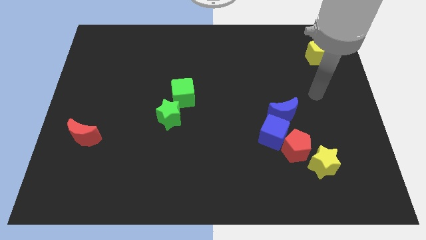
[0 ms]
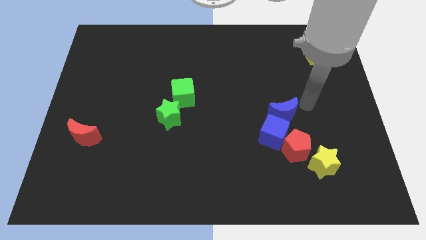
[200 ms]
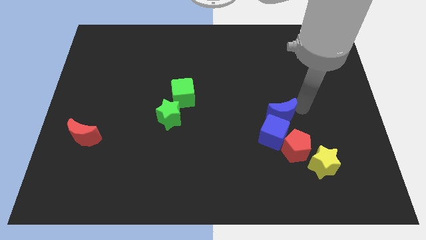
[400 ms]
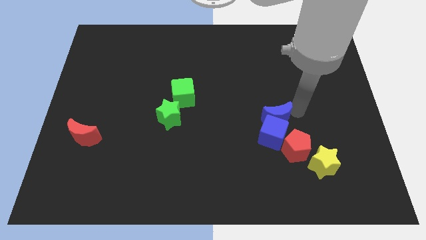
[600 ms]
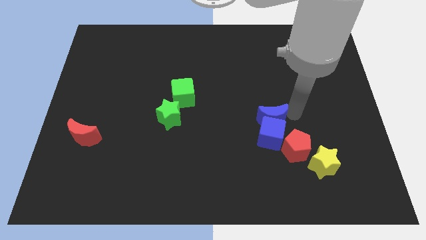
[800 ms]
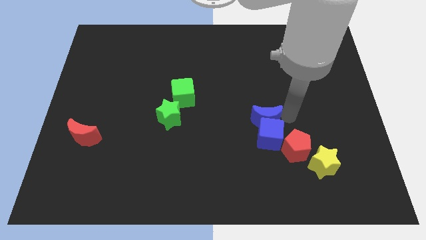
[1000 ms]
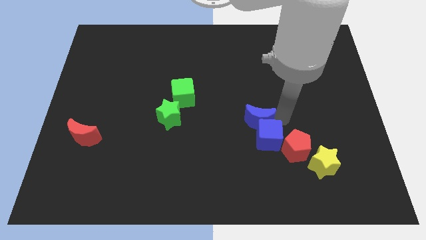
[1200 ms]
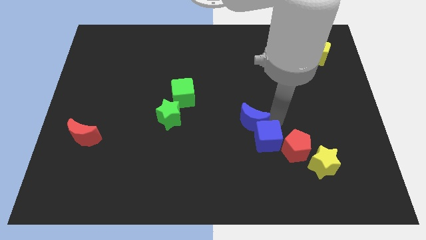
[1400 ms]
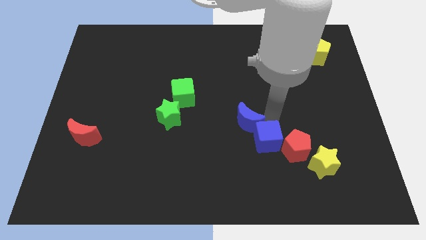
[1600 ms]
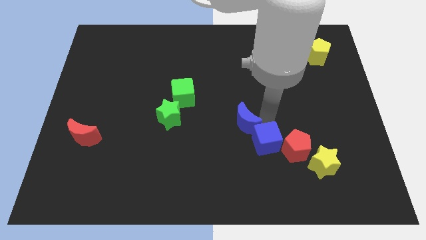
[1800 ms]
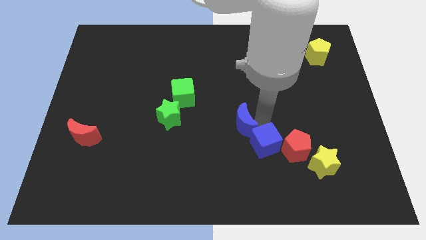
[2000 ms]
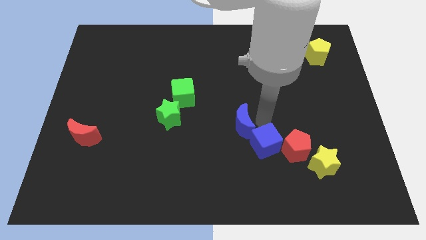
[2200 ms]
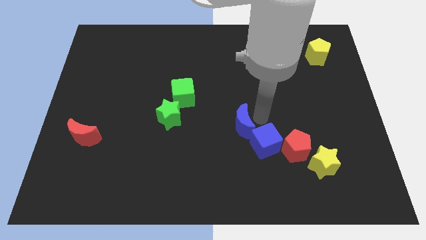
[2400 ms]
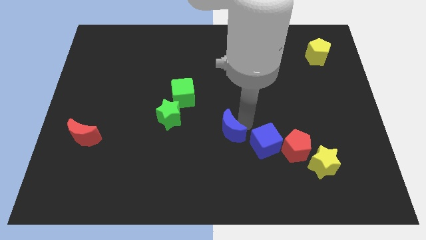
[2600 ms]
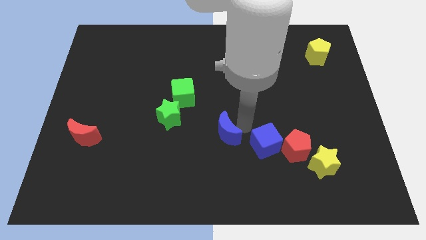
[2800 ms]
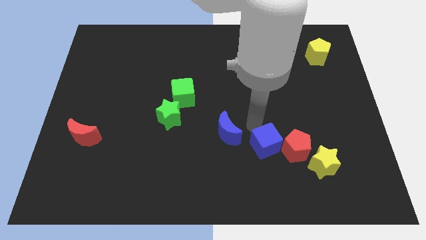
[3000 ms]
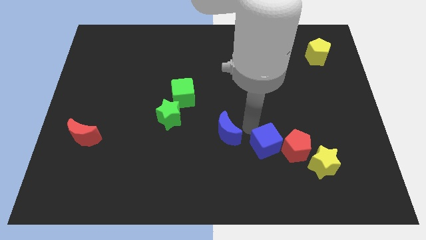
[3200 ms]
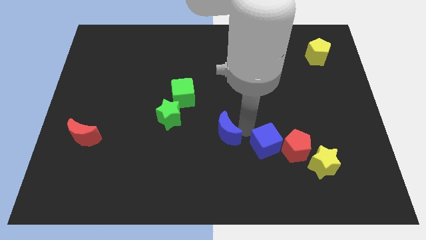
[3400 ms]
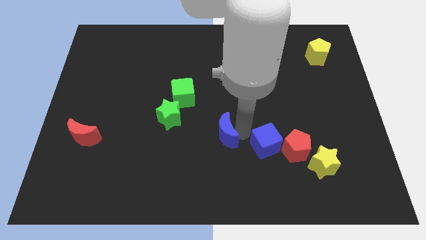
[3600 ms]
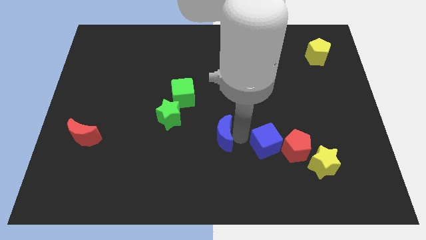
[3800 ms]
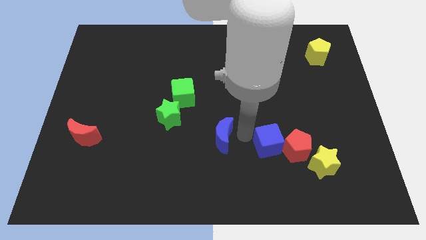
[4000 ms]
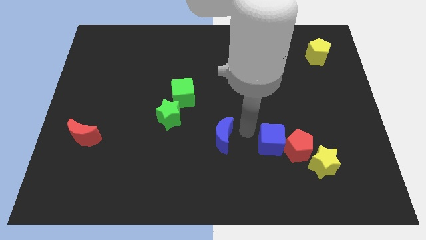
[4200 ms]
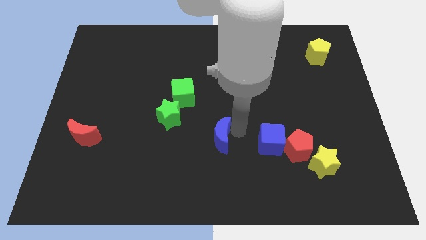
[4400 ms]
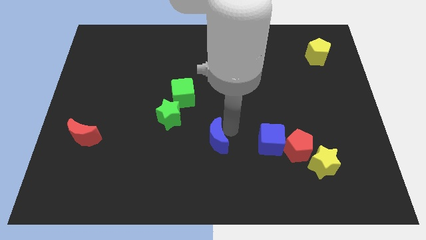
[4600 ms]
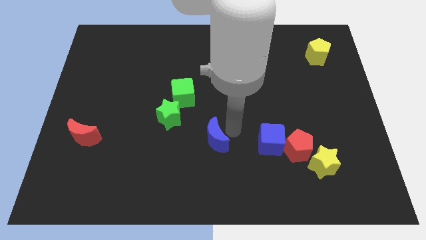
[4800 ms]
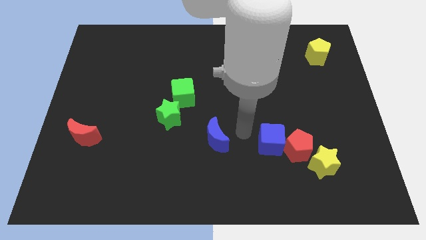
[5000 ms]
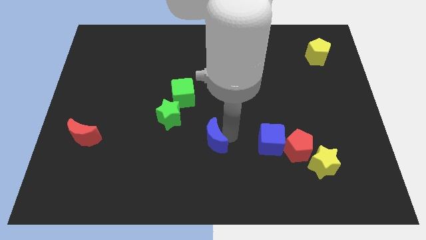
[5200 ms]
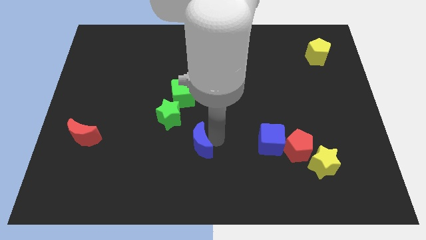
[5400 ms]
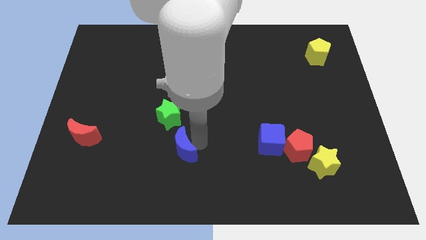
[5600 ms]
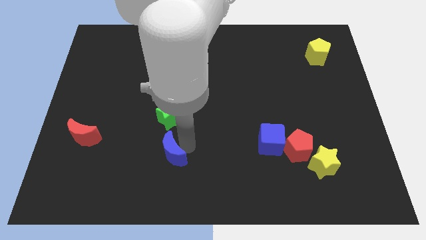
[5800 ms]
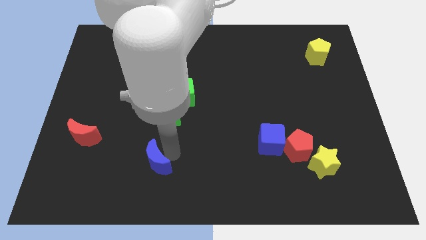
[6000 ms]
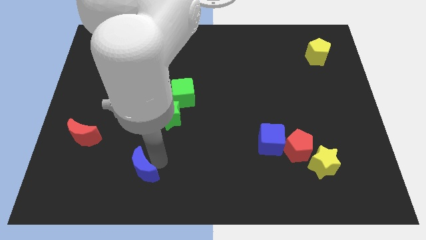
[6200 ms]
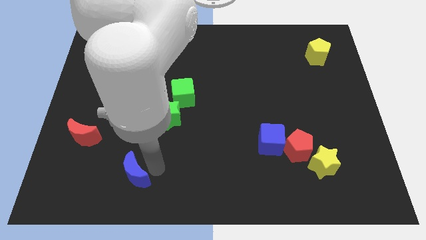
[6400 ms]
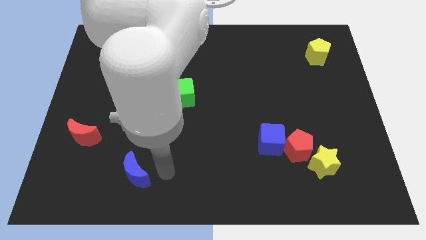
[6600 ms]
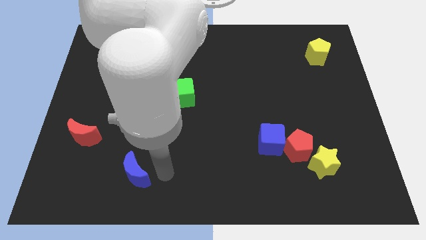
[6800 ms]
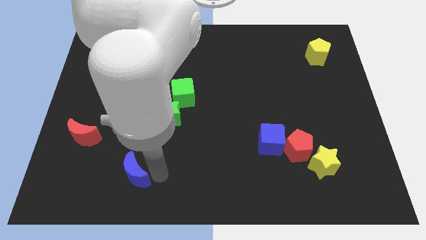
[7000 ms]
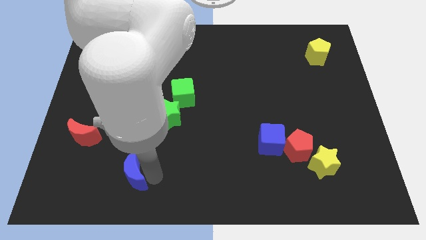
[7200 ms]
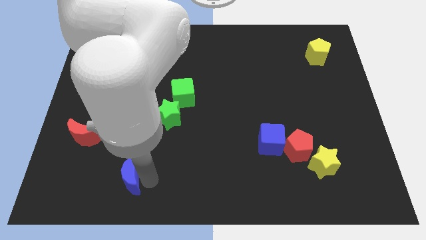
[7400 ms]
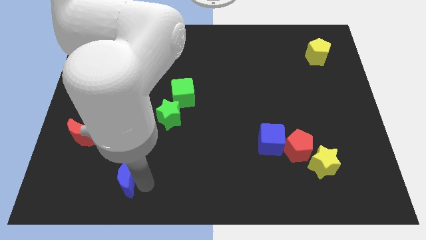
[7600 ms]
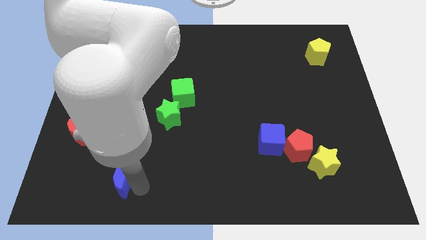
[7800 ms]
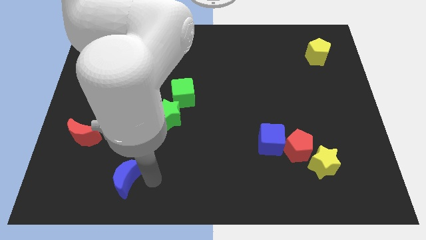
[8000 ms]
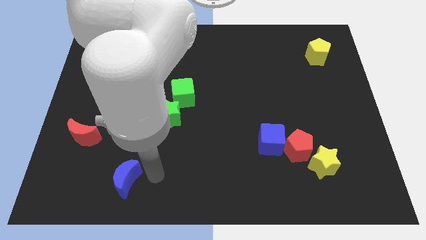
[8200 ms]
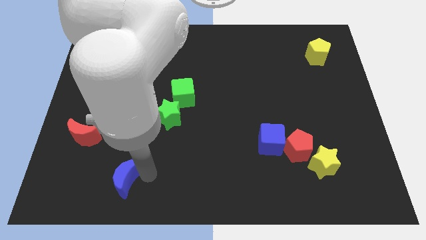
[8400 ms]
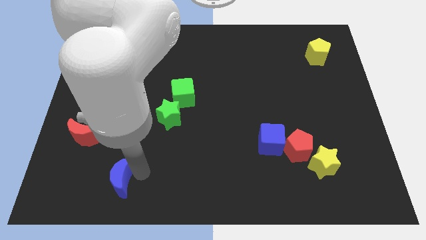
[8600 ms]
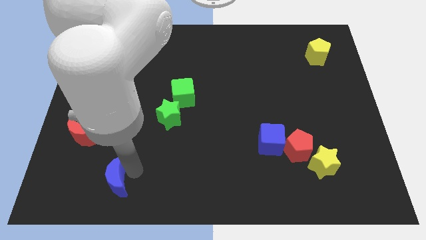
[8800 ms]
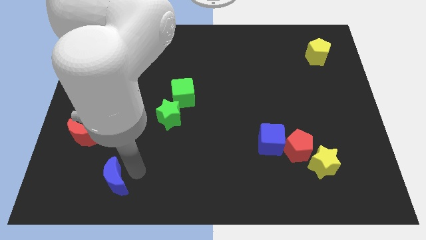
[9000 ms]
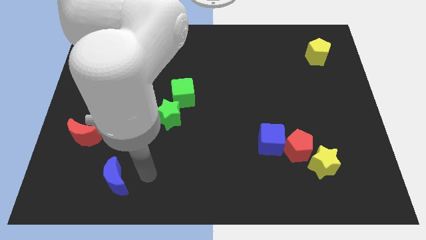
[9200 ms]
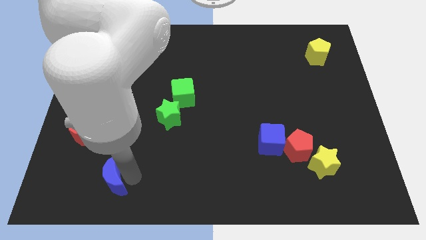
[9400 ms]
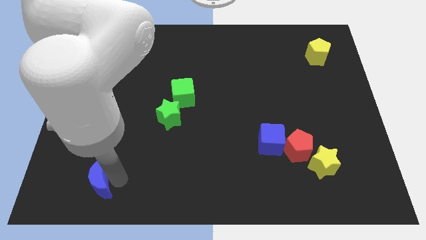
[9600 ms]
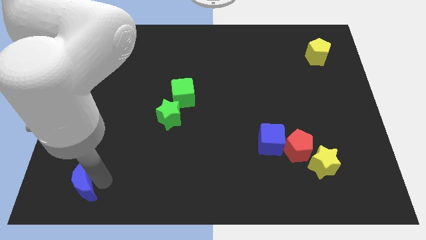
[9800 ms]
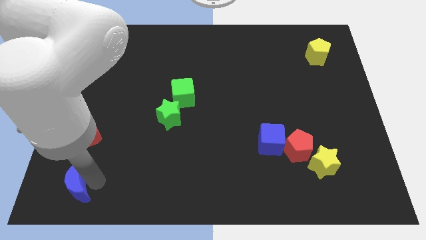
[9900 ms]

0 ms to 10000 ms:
slide the blue moon to the lower left corner
